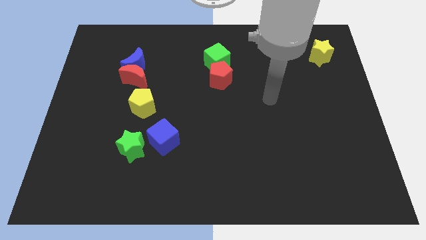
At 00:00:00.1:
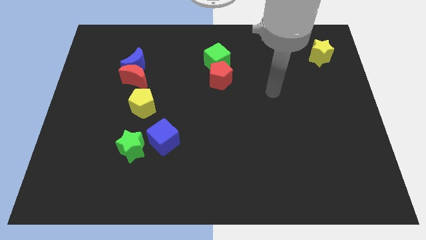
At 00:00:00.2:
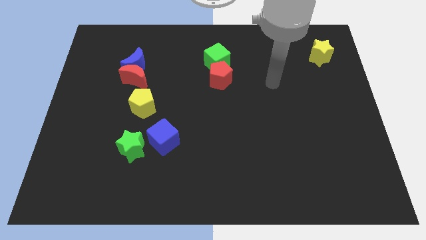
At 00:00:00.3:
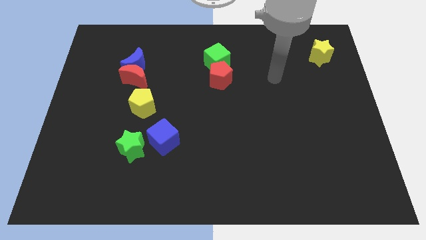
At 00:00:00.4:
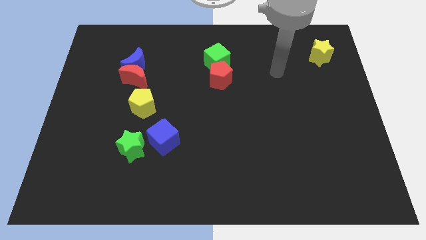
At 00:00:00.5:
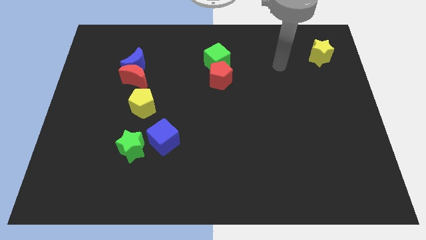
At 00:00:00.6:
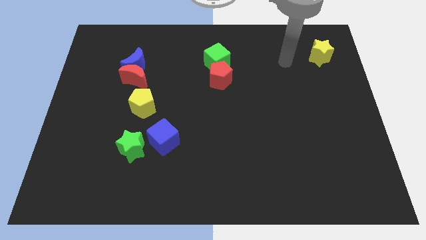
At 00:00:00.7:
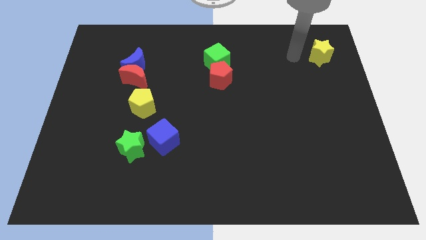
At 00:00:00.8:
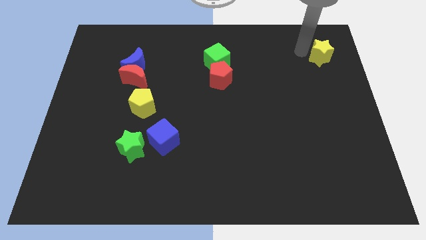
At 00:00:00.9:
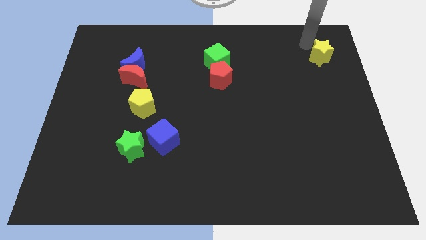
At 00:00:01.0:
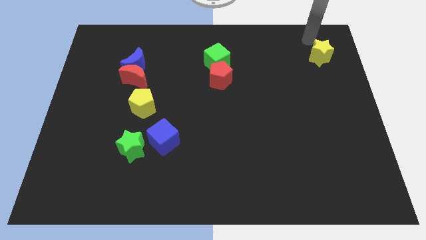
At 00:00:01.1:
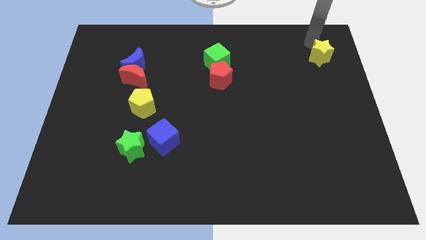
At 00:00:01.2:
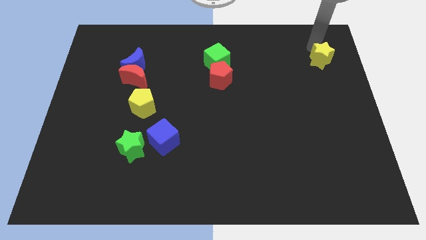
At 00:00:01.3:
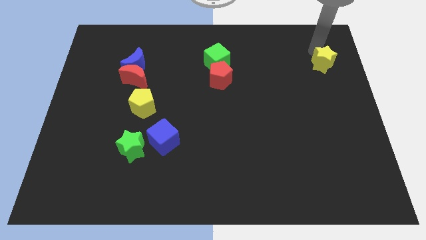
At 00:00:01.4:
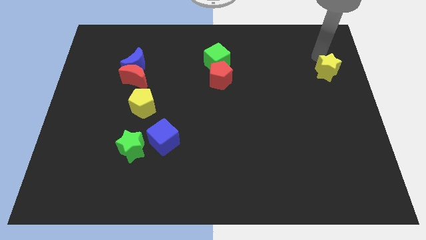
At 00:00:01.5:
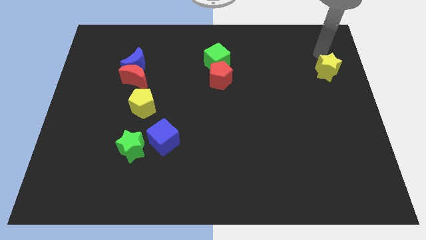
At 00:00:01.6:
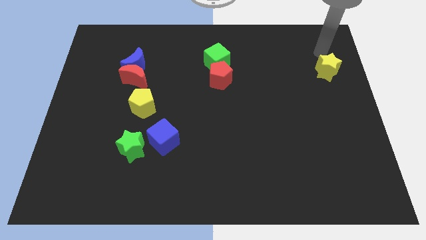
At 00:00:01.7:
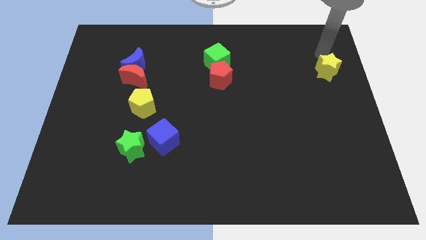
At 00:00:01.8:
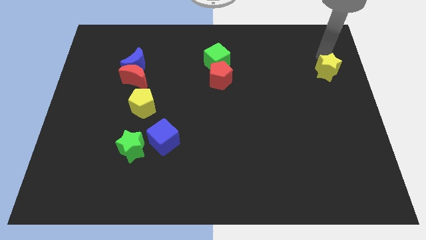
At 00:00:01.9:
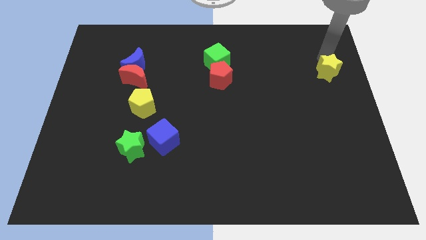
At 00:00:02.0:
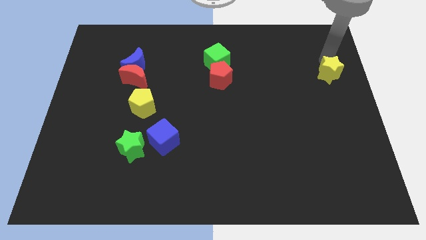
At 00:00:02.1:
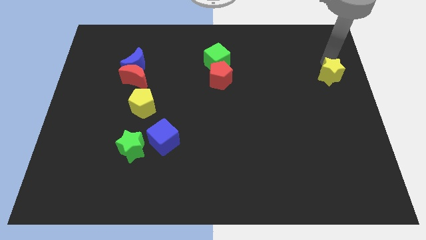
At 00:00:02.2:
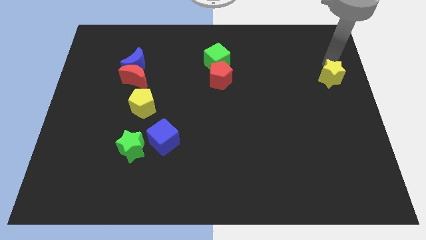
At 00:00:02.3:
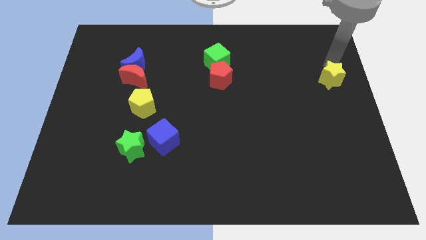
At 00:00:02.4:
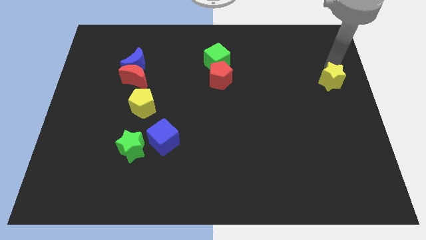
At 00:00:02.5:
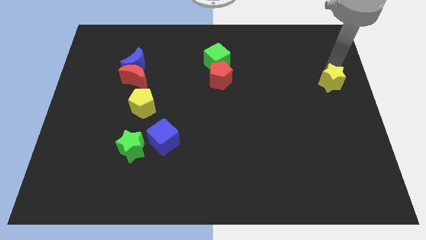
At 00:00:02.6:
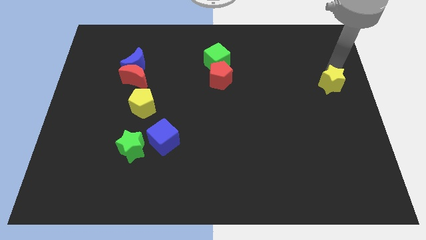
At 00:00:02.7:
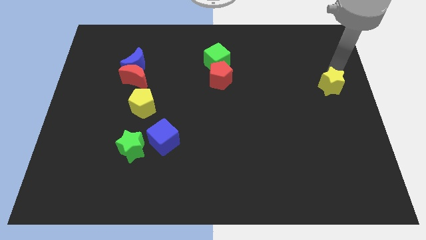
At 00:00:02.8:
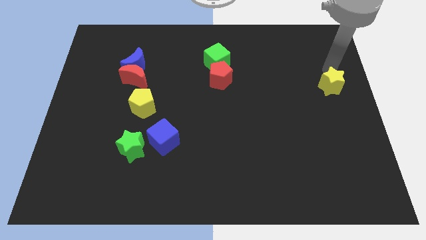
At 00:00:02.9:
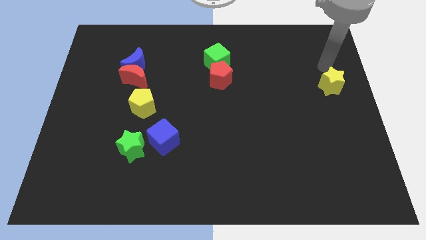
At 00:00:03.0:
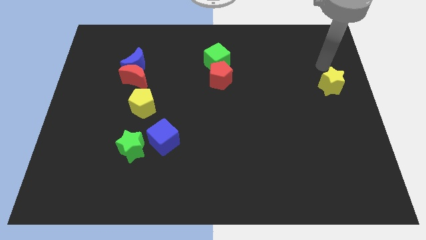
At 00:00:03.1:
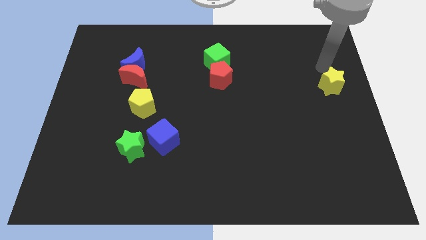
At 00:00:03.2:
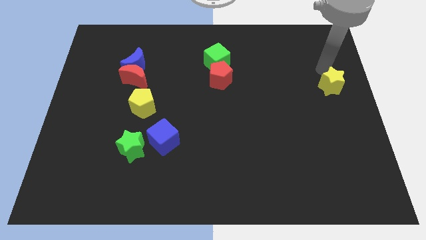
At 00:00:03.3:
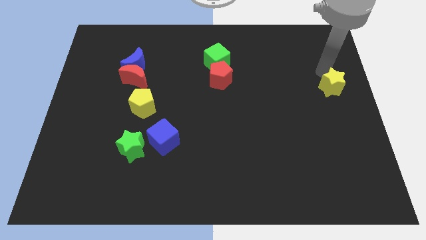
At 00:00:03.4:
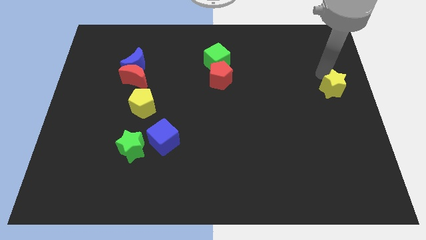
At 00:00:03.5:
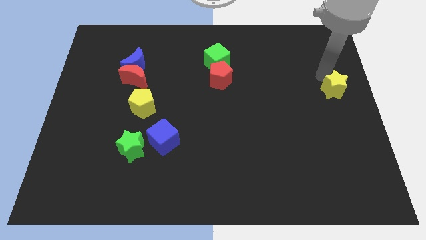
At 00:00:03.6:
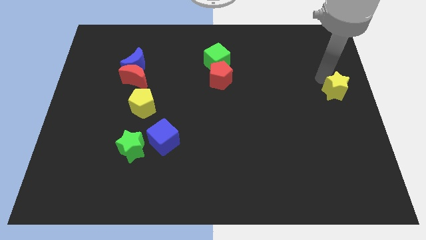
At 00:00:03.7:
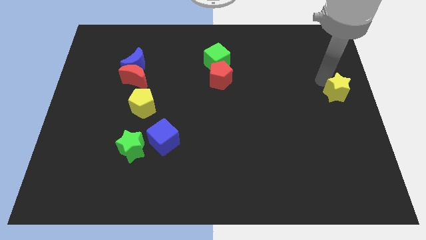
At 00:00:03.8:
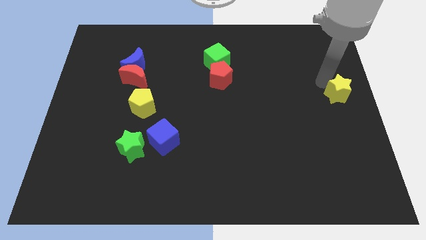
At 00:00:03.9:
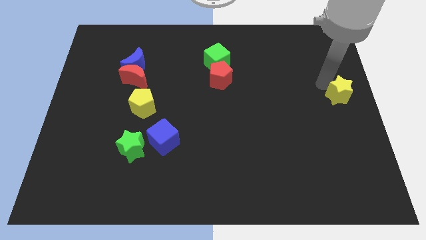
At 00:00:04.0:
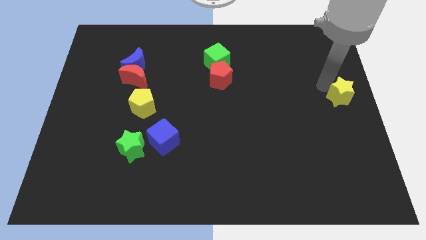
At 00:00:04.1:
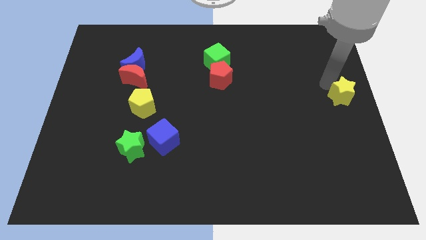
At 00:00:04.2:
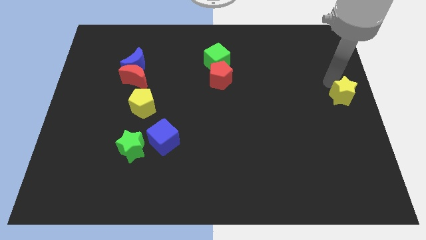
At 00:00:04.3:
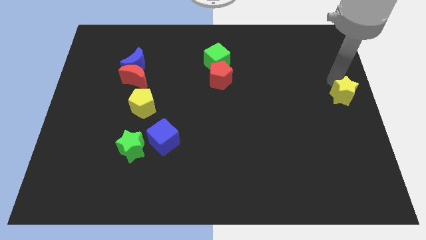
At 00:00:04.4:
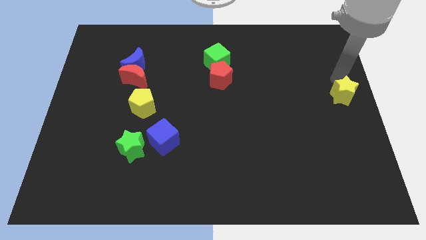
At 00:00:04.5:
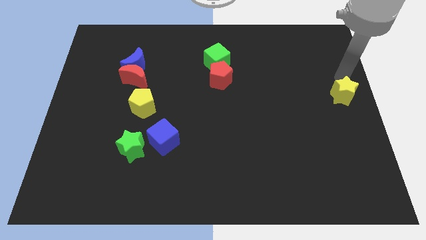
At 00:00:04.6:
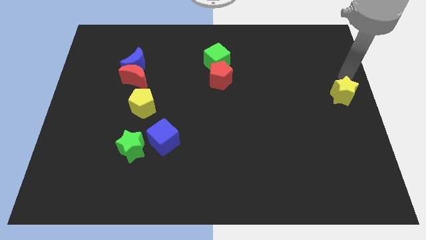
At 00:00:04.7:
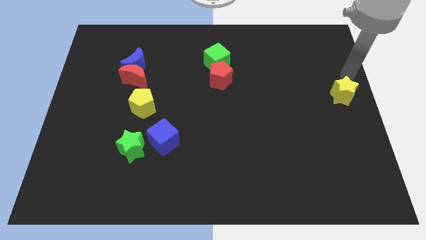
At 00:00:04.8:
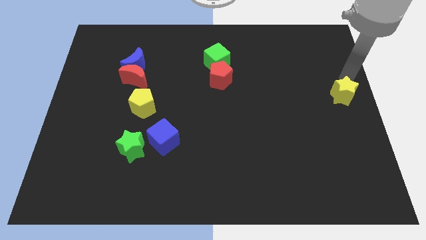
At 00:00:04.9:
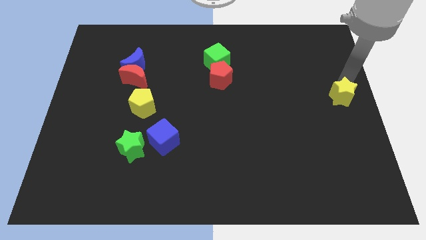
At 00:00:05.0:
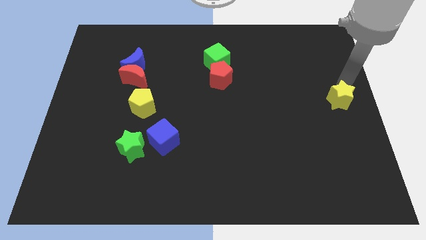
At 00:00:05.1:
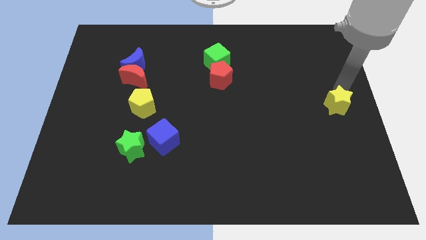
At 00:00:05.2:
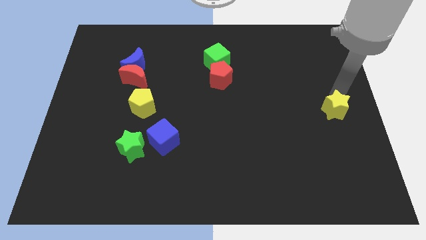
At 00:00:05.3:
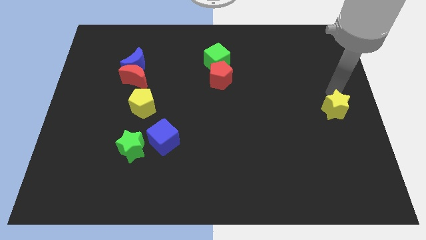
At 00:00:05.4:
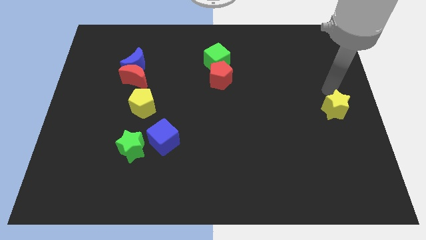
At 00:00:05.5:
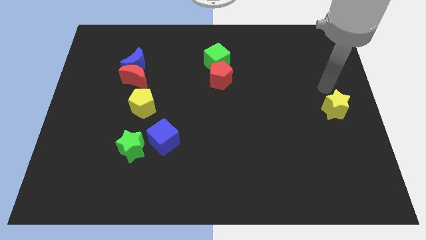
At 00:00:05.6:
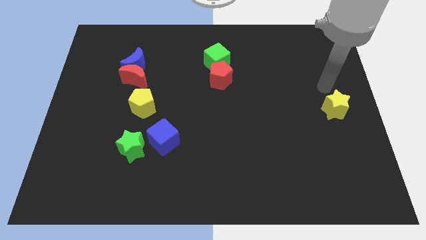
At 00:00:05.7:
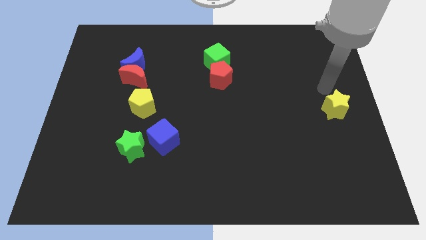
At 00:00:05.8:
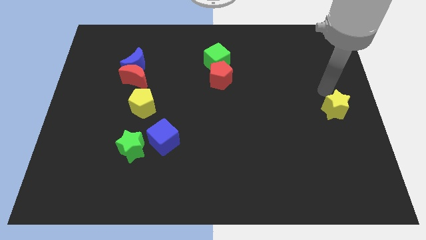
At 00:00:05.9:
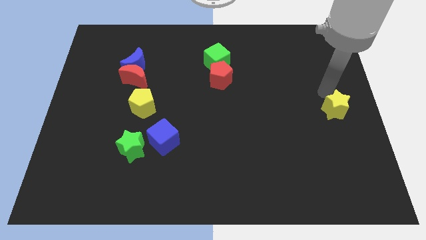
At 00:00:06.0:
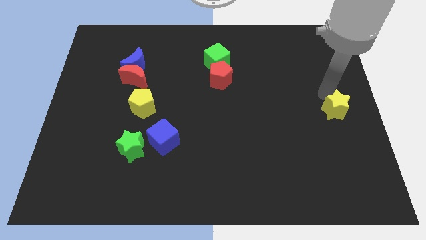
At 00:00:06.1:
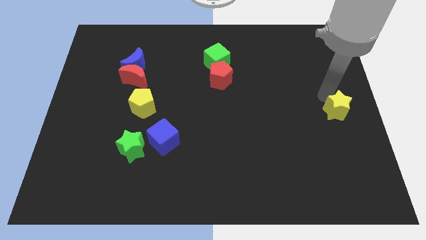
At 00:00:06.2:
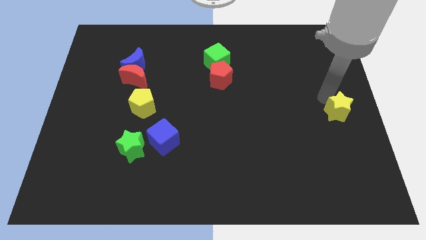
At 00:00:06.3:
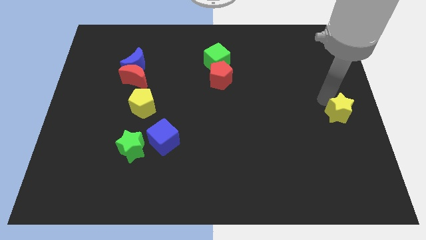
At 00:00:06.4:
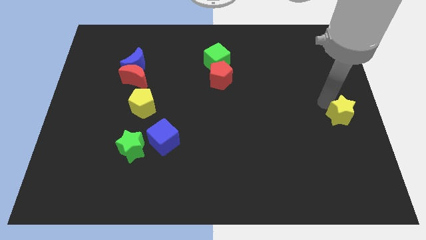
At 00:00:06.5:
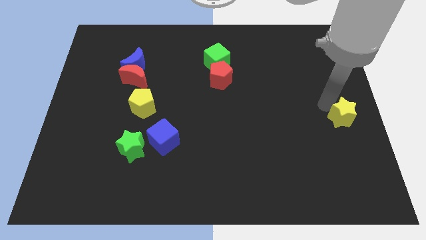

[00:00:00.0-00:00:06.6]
slide the yellow star downwards

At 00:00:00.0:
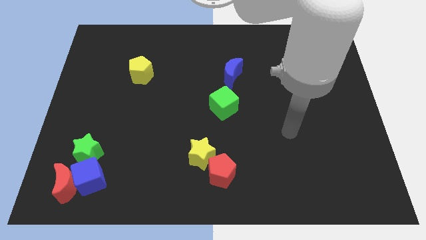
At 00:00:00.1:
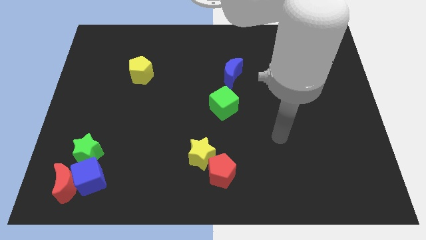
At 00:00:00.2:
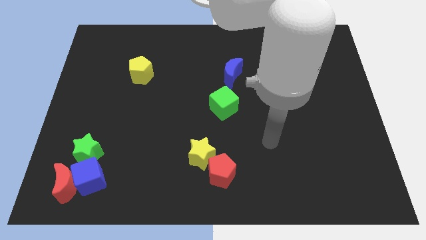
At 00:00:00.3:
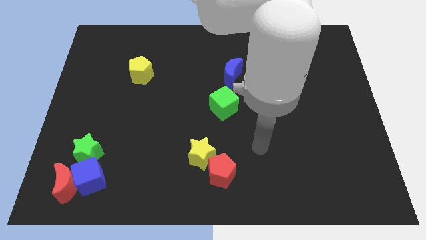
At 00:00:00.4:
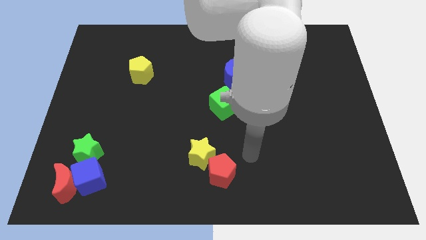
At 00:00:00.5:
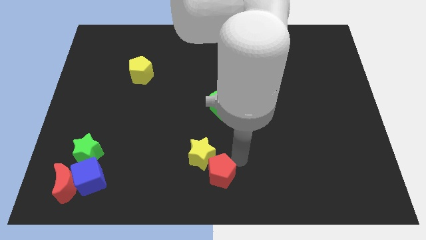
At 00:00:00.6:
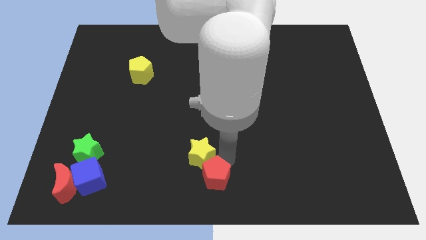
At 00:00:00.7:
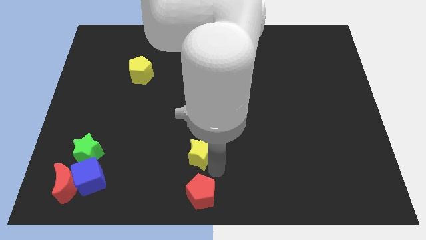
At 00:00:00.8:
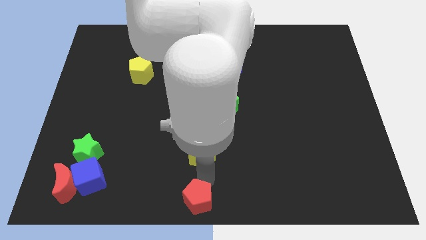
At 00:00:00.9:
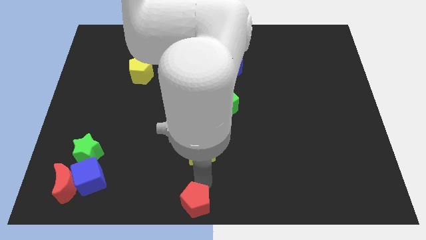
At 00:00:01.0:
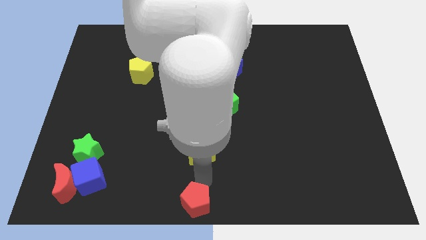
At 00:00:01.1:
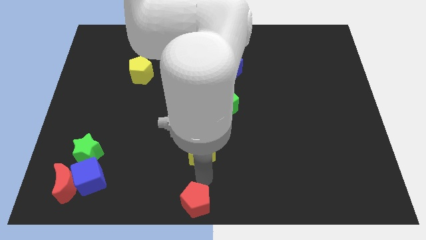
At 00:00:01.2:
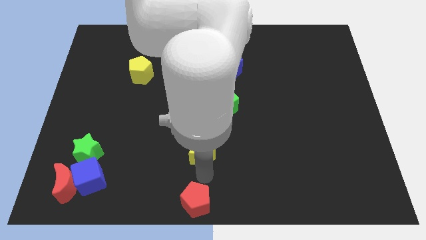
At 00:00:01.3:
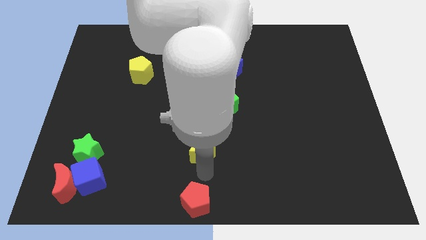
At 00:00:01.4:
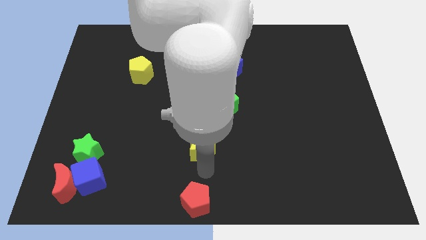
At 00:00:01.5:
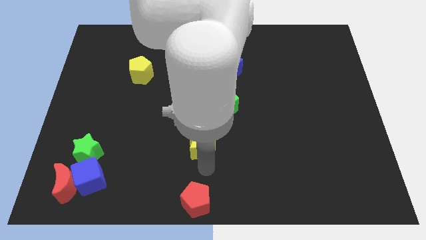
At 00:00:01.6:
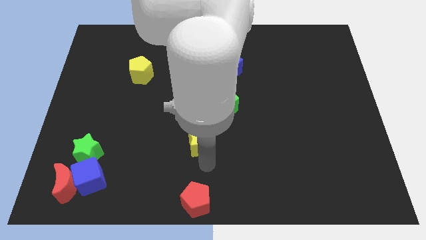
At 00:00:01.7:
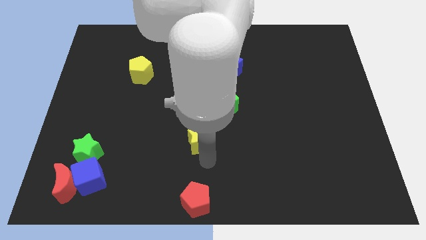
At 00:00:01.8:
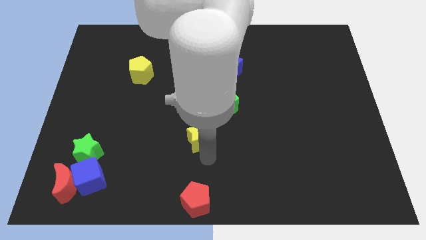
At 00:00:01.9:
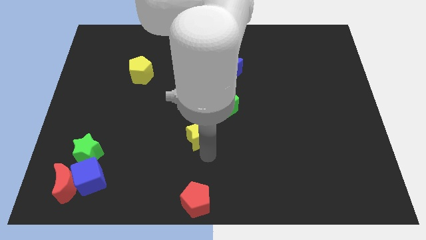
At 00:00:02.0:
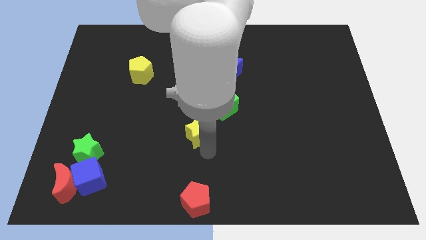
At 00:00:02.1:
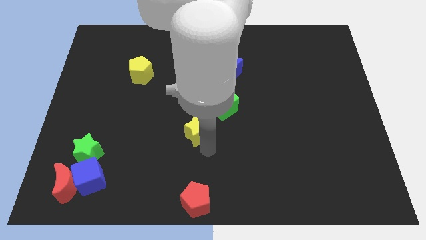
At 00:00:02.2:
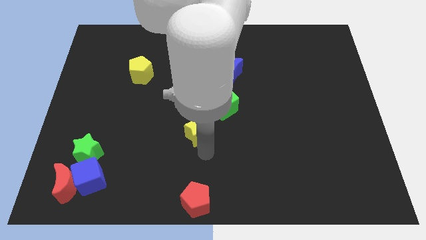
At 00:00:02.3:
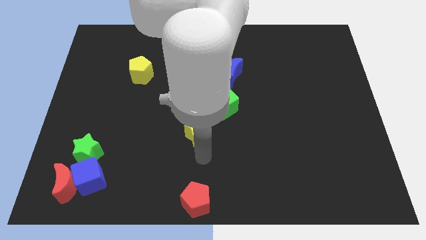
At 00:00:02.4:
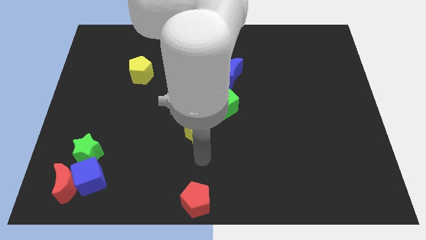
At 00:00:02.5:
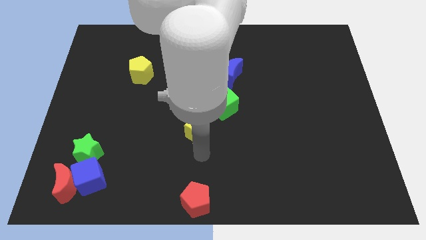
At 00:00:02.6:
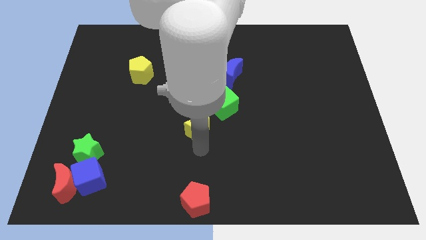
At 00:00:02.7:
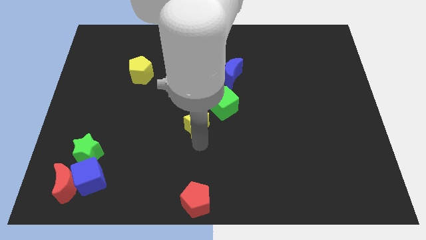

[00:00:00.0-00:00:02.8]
slide the yellow star up a little
